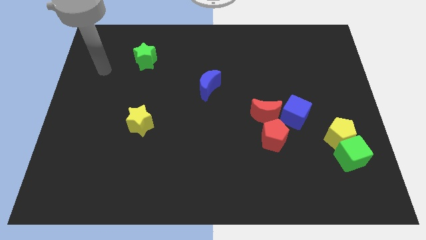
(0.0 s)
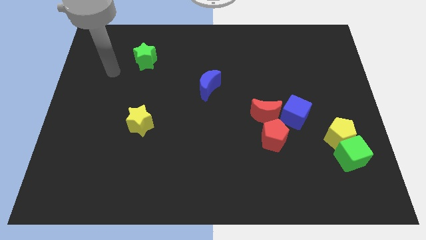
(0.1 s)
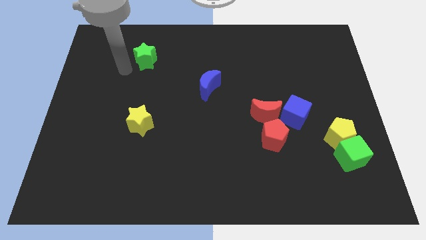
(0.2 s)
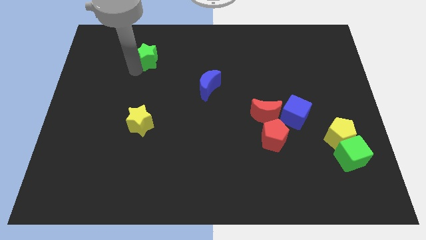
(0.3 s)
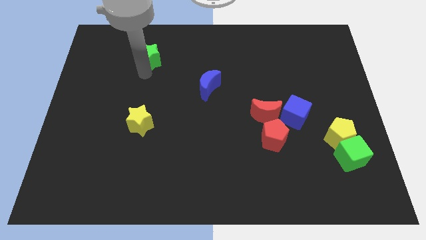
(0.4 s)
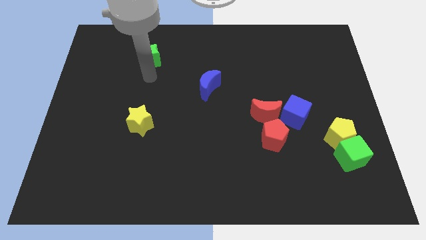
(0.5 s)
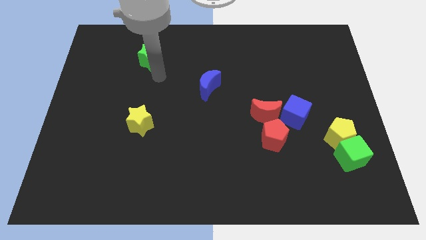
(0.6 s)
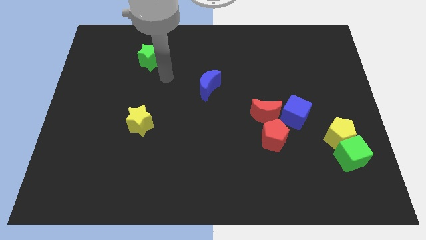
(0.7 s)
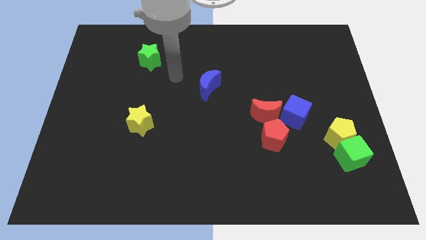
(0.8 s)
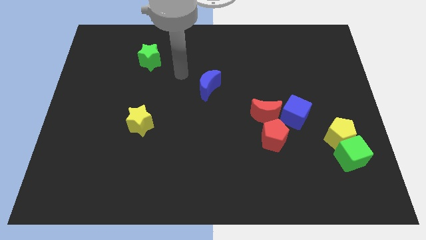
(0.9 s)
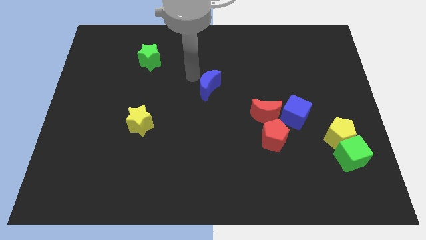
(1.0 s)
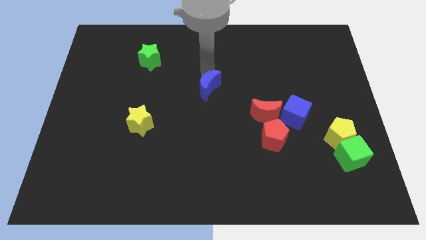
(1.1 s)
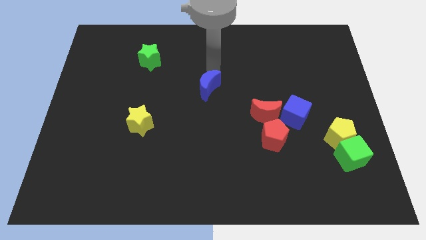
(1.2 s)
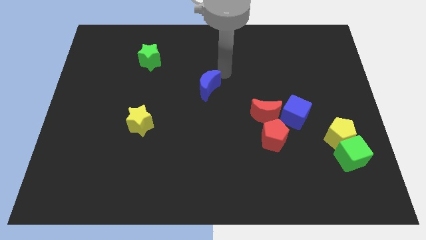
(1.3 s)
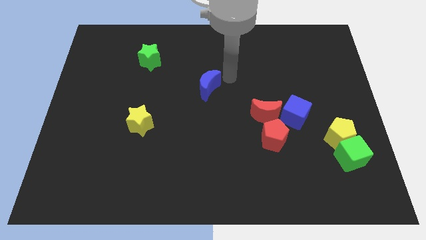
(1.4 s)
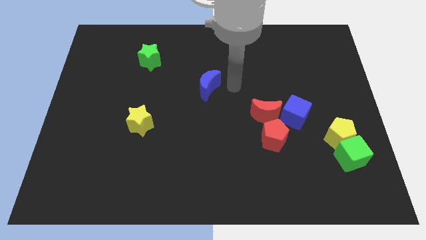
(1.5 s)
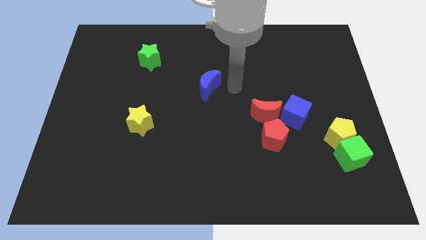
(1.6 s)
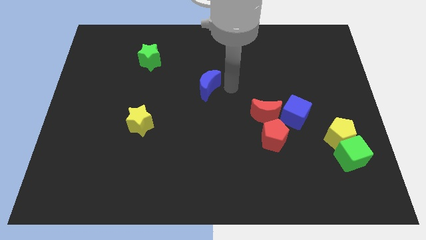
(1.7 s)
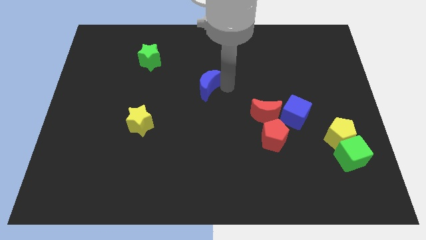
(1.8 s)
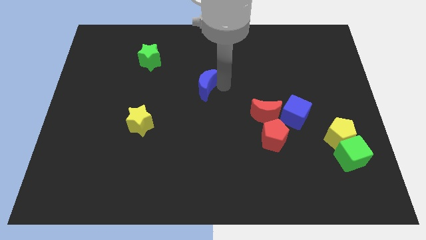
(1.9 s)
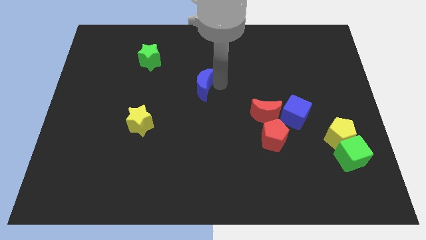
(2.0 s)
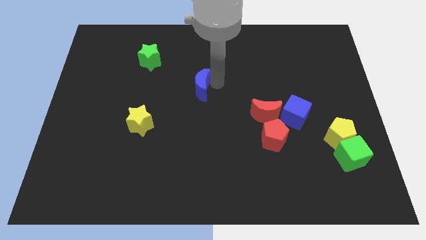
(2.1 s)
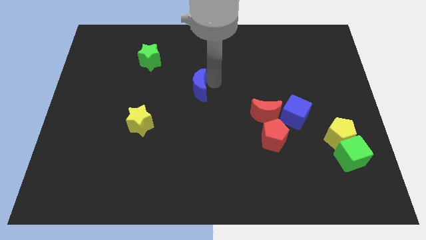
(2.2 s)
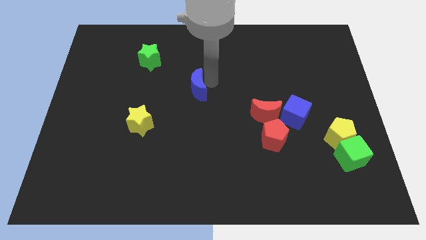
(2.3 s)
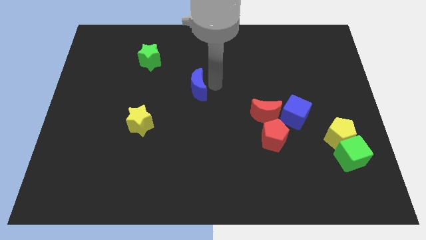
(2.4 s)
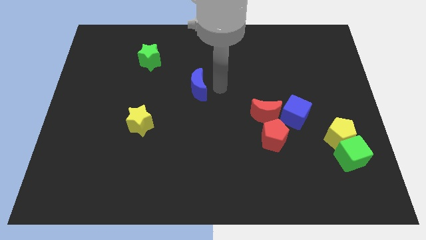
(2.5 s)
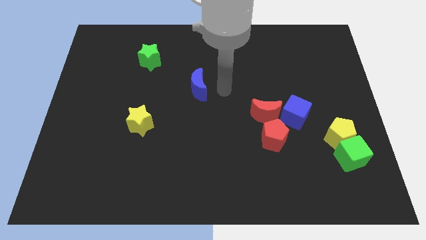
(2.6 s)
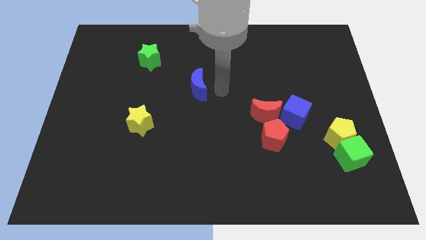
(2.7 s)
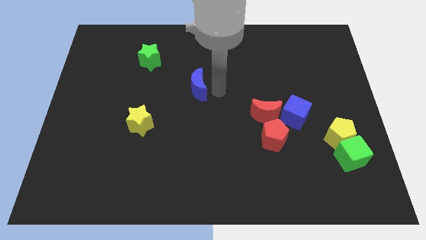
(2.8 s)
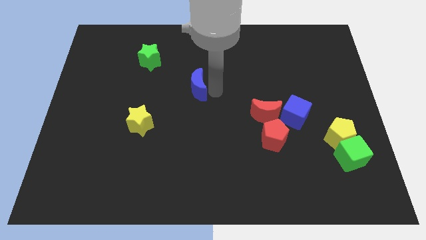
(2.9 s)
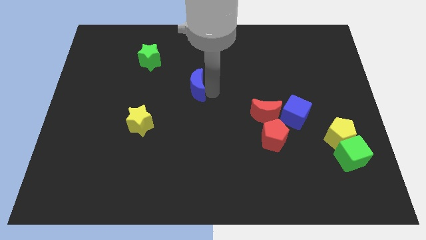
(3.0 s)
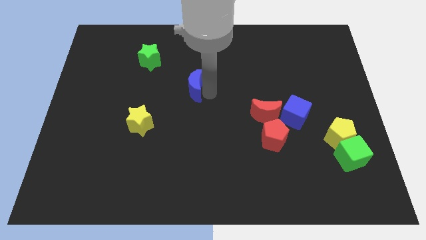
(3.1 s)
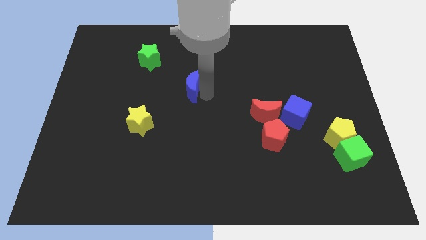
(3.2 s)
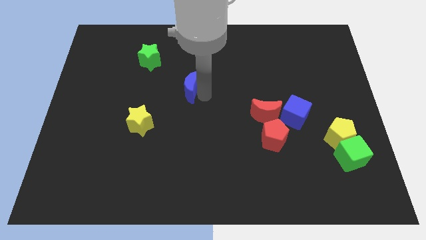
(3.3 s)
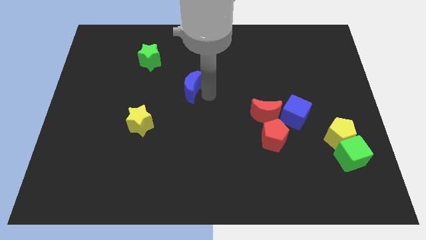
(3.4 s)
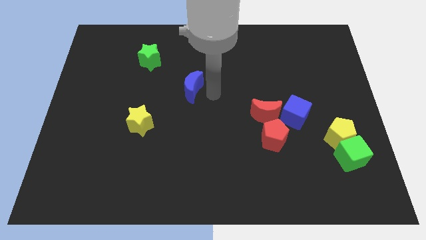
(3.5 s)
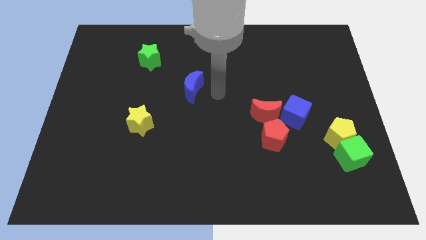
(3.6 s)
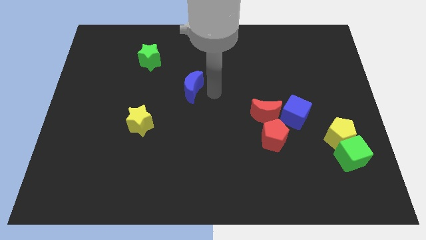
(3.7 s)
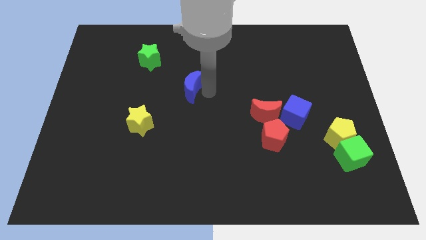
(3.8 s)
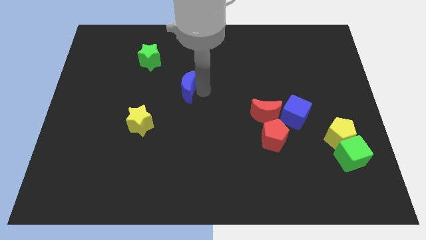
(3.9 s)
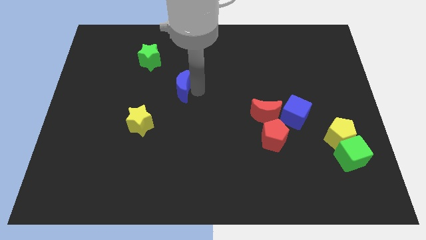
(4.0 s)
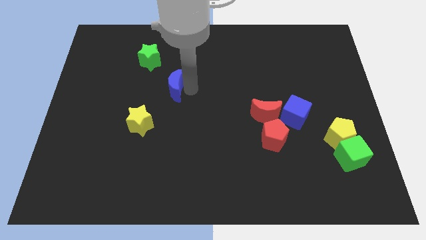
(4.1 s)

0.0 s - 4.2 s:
slide the blue moon slightly to the left

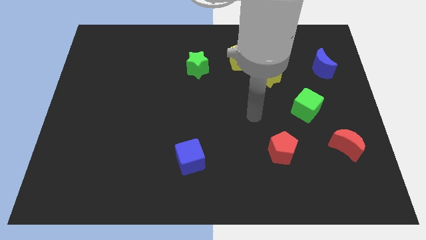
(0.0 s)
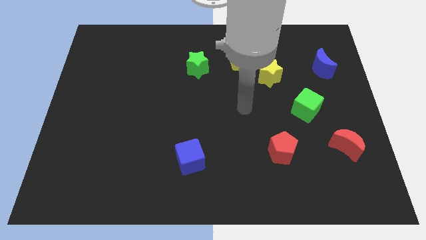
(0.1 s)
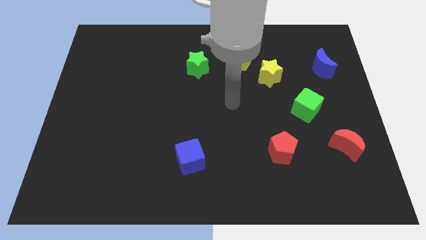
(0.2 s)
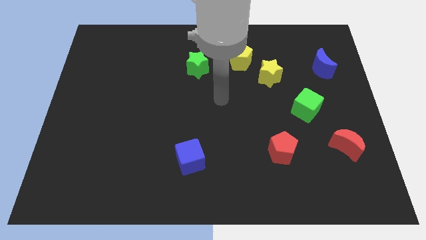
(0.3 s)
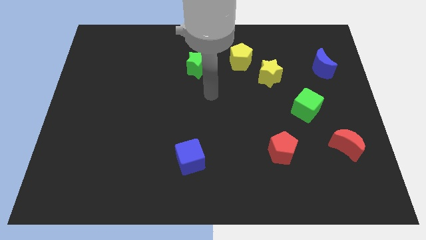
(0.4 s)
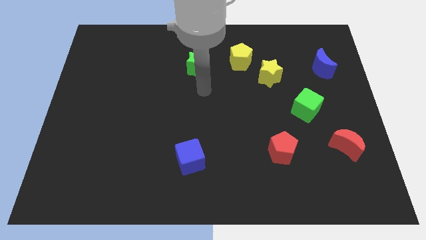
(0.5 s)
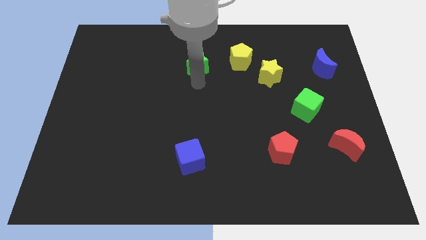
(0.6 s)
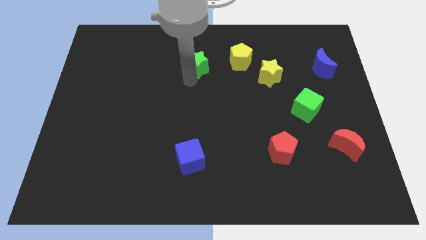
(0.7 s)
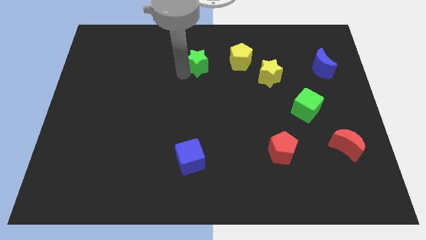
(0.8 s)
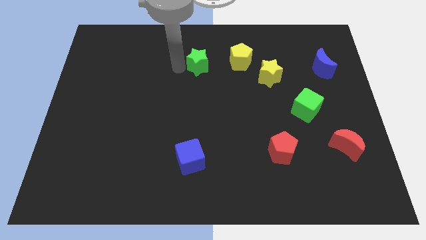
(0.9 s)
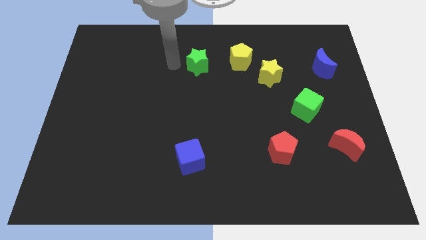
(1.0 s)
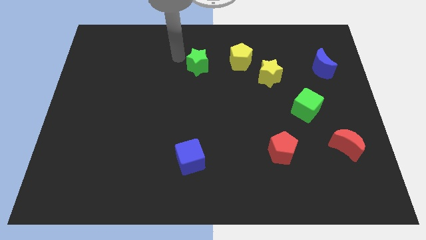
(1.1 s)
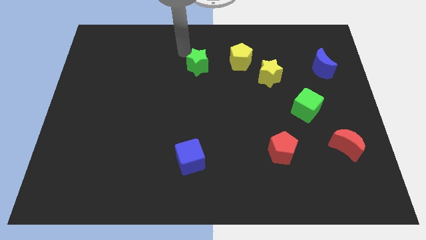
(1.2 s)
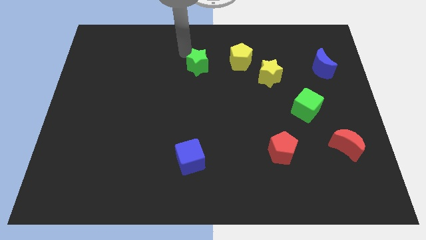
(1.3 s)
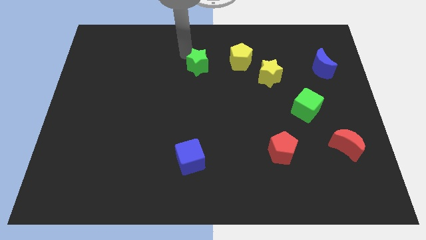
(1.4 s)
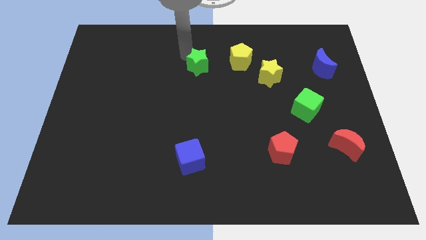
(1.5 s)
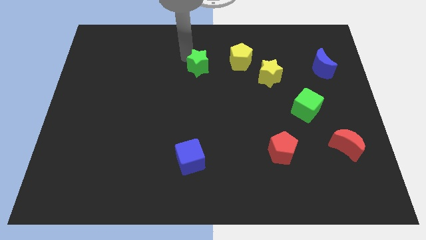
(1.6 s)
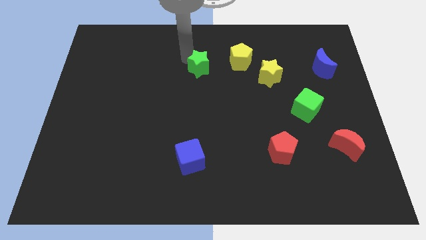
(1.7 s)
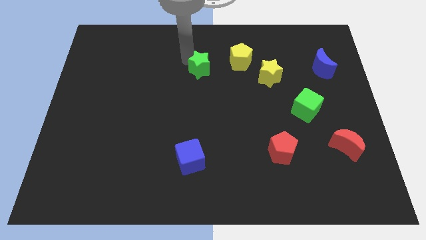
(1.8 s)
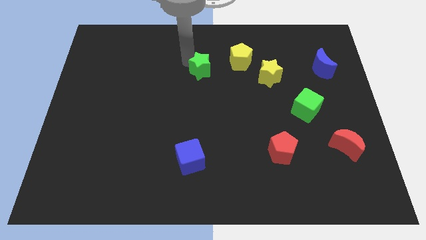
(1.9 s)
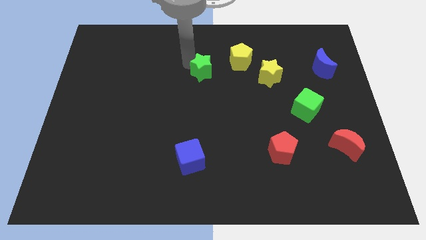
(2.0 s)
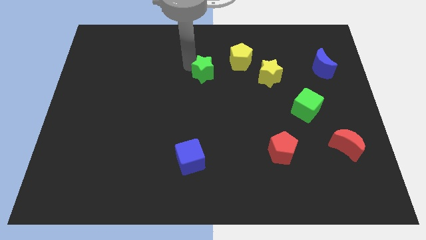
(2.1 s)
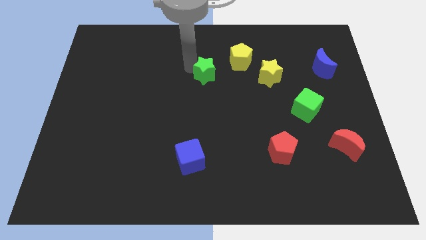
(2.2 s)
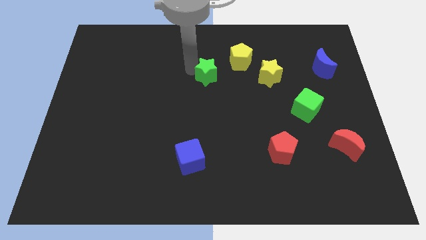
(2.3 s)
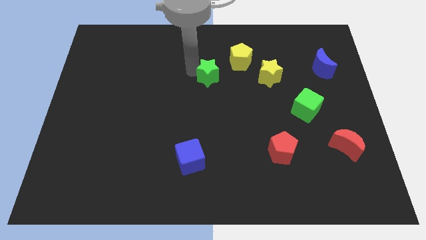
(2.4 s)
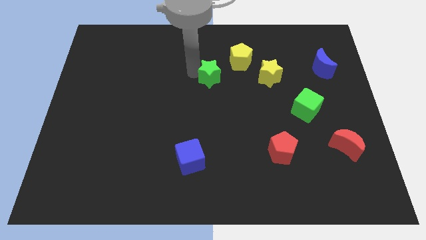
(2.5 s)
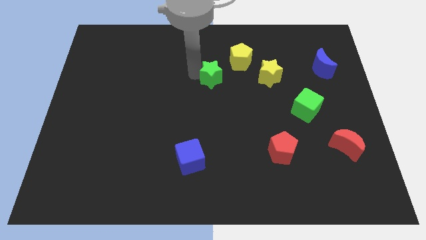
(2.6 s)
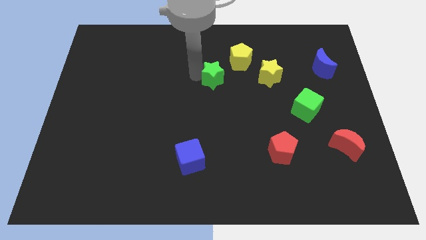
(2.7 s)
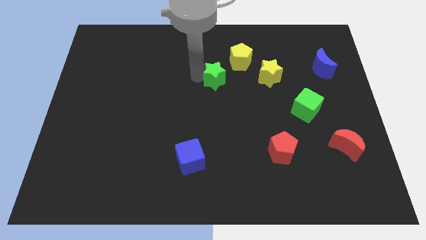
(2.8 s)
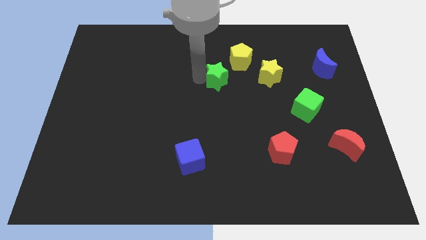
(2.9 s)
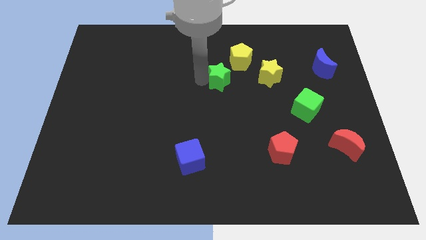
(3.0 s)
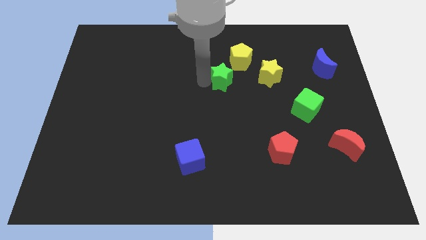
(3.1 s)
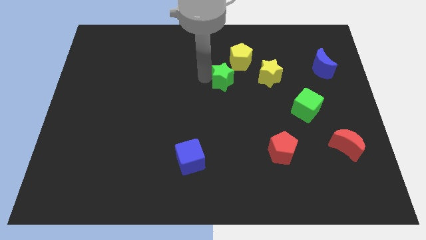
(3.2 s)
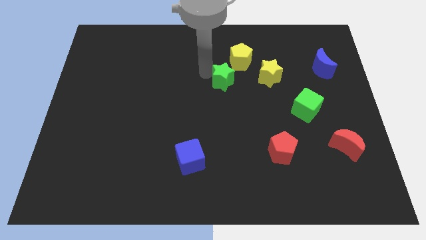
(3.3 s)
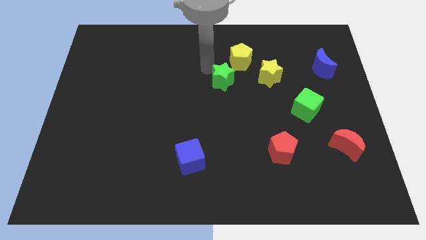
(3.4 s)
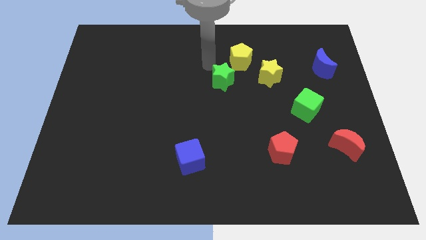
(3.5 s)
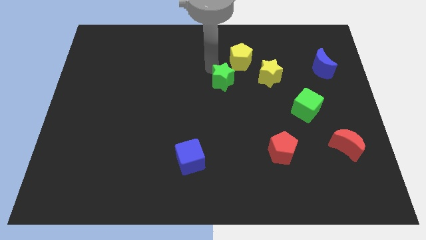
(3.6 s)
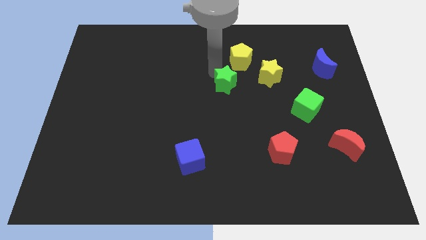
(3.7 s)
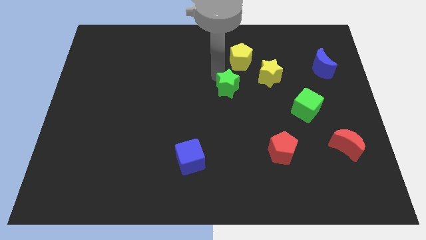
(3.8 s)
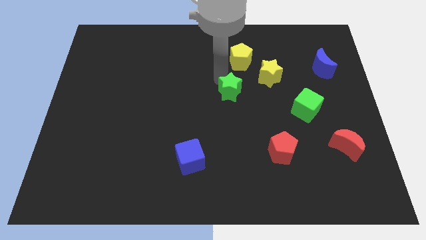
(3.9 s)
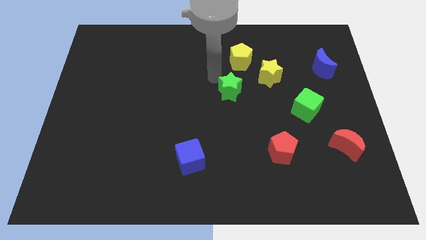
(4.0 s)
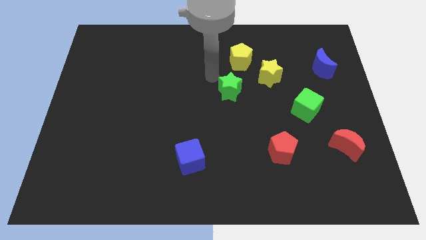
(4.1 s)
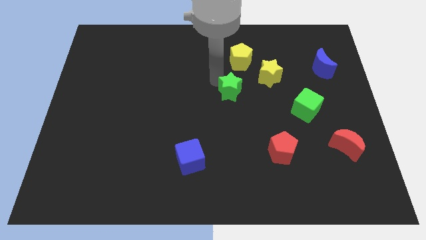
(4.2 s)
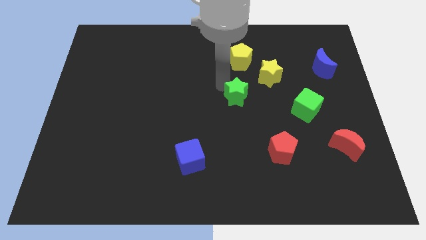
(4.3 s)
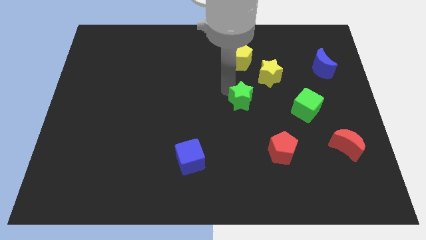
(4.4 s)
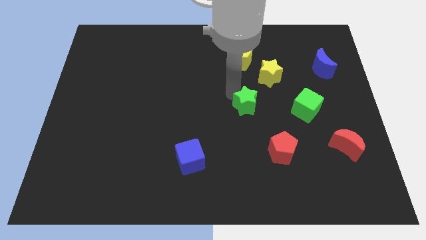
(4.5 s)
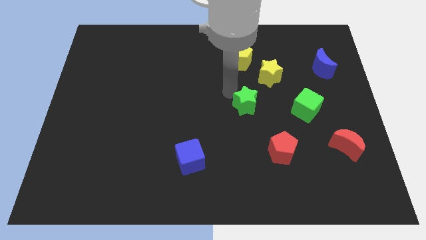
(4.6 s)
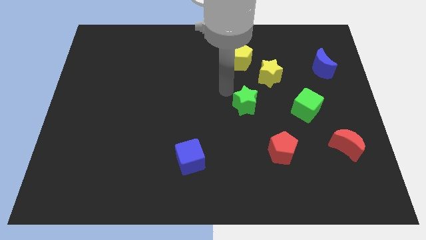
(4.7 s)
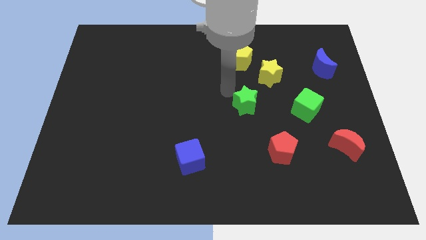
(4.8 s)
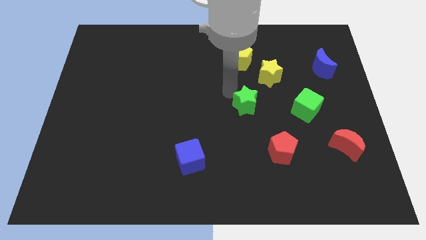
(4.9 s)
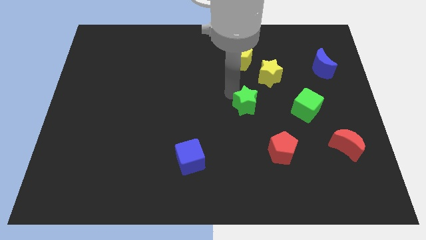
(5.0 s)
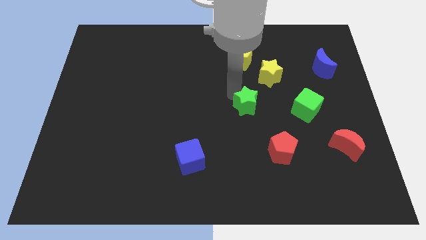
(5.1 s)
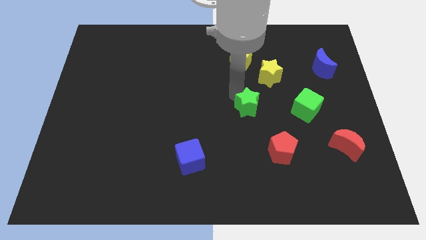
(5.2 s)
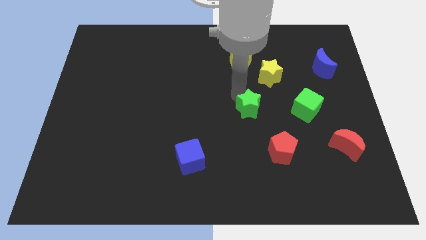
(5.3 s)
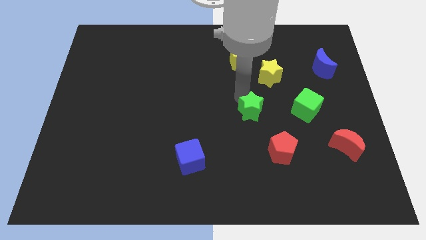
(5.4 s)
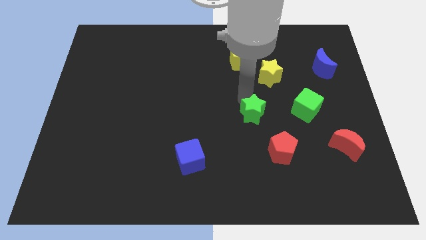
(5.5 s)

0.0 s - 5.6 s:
slide the green star down and then right
